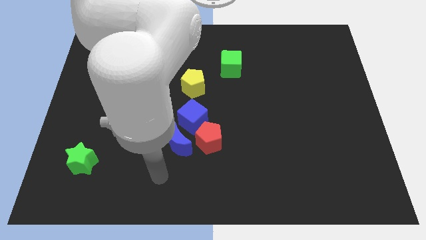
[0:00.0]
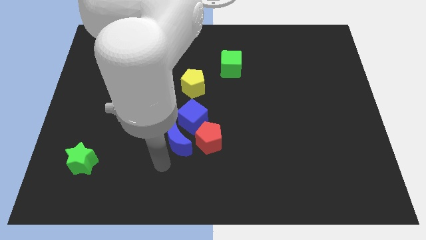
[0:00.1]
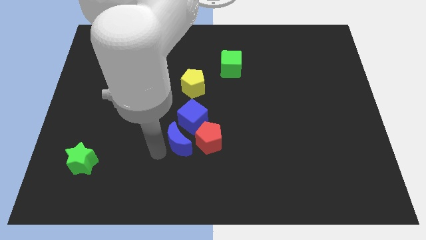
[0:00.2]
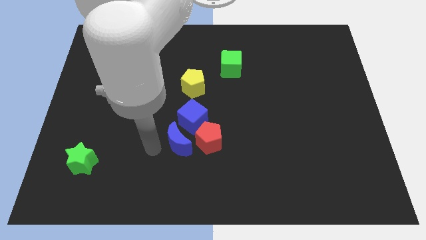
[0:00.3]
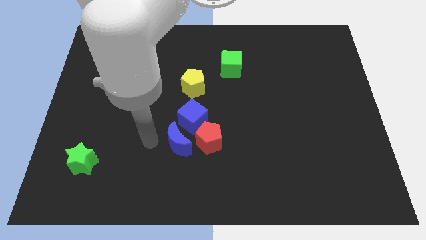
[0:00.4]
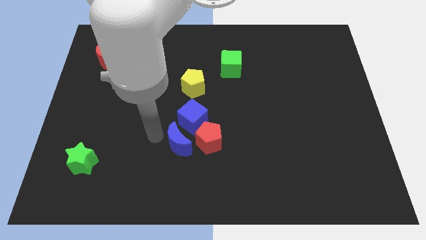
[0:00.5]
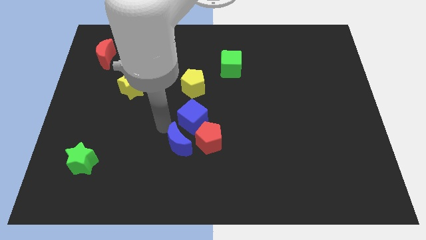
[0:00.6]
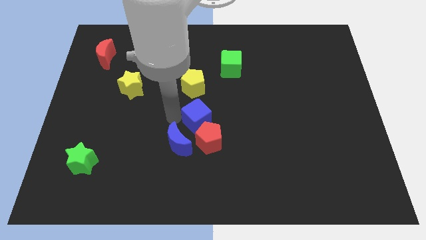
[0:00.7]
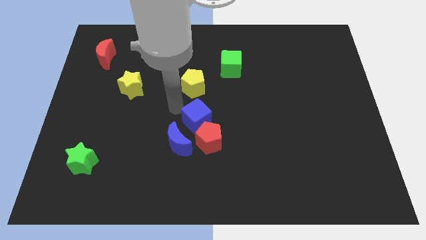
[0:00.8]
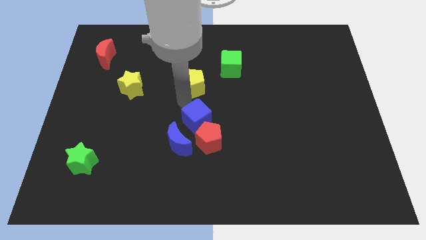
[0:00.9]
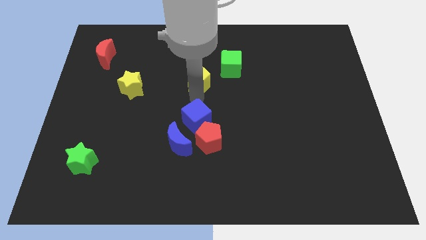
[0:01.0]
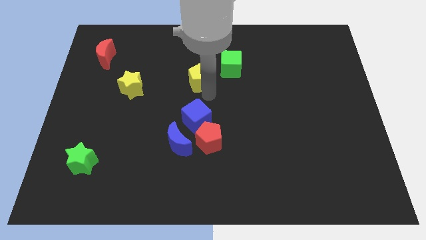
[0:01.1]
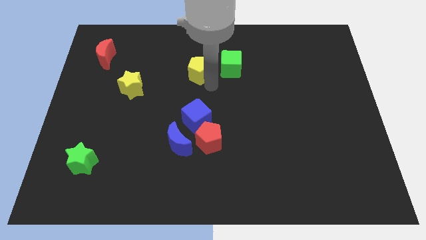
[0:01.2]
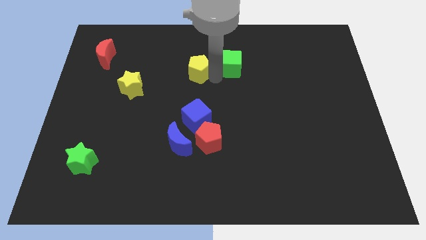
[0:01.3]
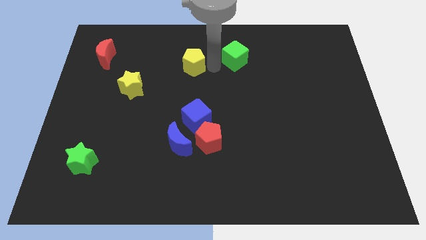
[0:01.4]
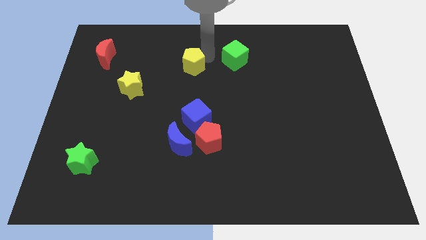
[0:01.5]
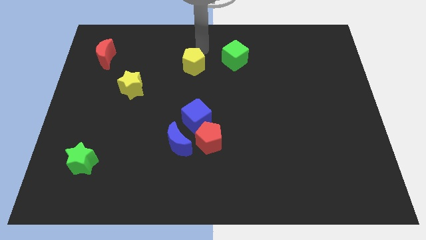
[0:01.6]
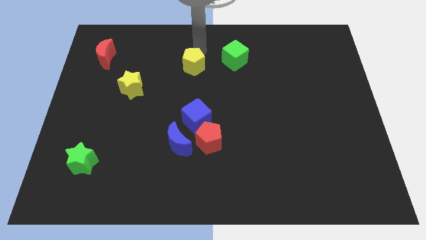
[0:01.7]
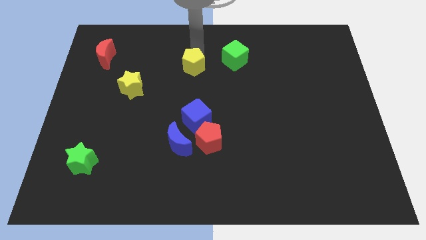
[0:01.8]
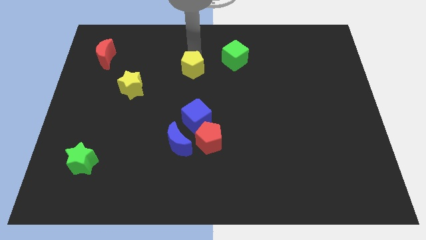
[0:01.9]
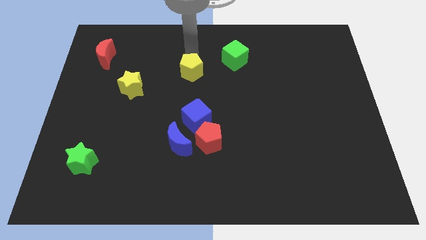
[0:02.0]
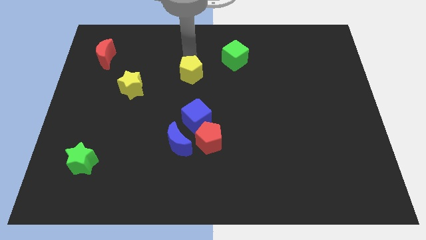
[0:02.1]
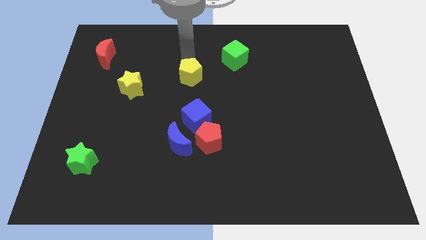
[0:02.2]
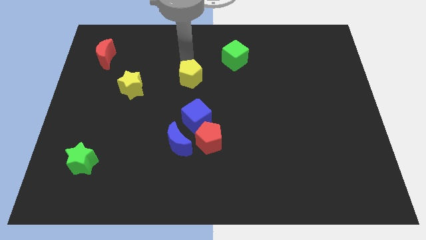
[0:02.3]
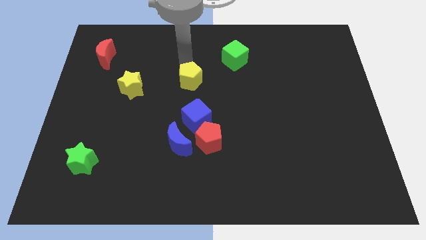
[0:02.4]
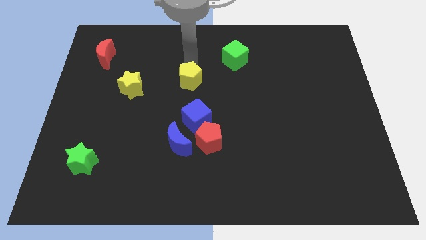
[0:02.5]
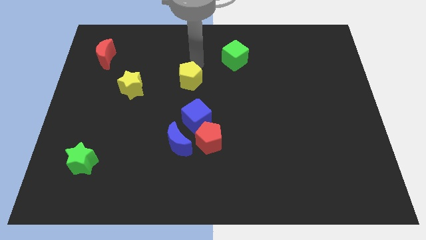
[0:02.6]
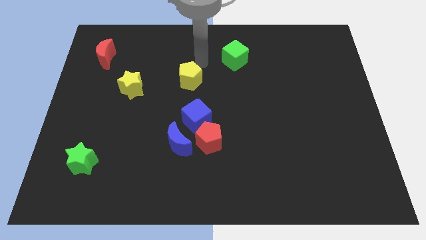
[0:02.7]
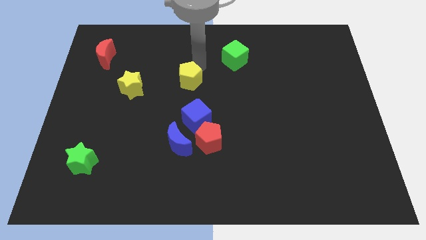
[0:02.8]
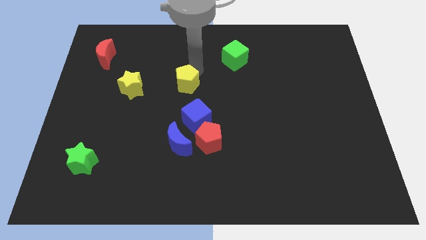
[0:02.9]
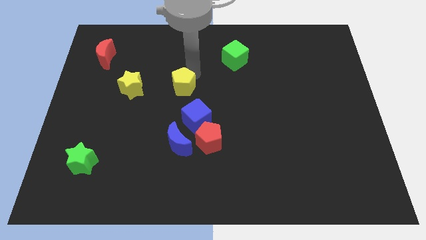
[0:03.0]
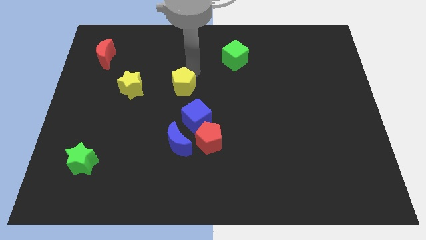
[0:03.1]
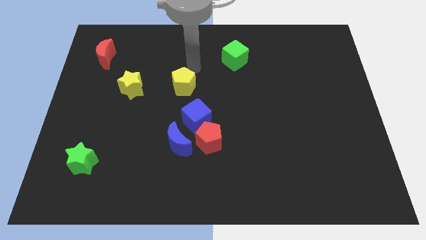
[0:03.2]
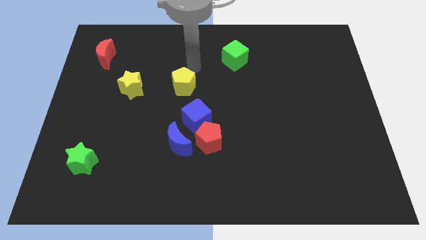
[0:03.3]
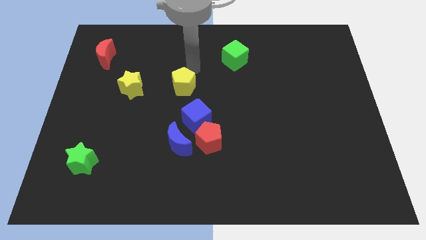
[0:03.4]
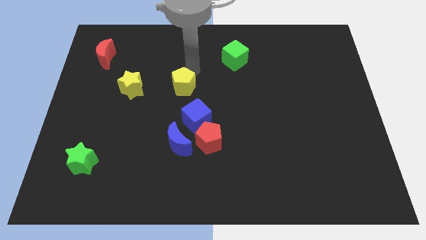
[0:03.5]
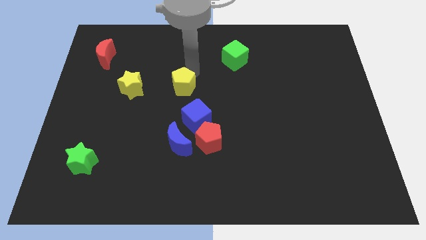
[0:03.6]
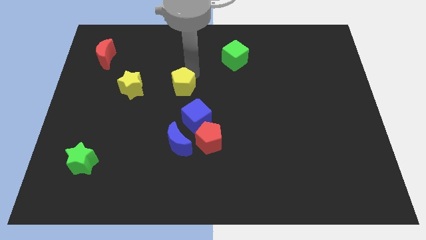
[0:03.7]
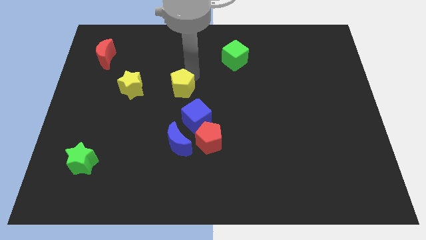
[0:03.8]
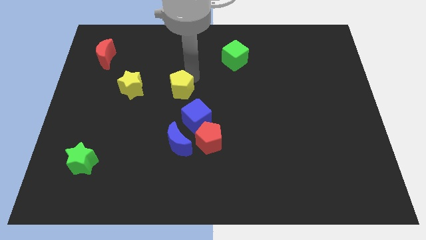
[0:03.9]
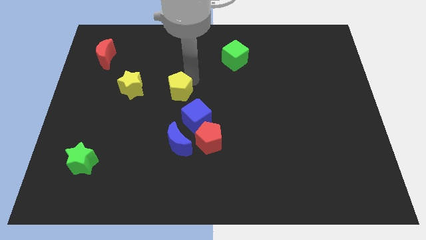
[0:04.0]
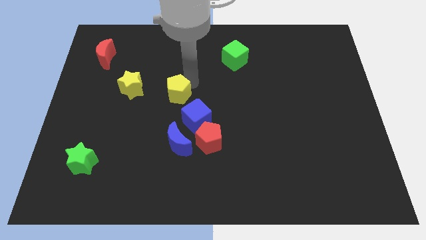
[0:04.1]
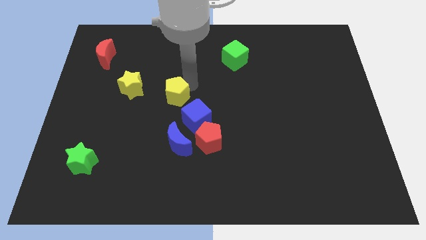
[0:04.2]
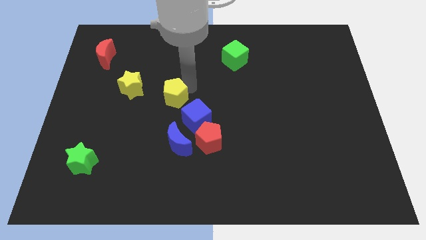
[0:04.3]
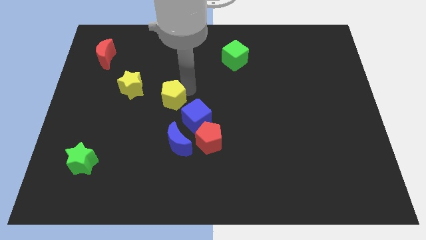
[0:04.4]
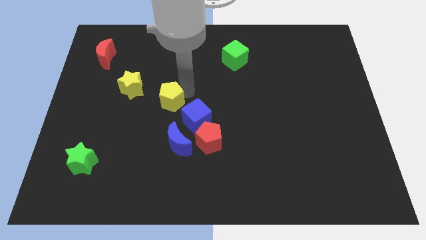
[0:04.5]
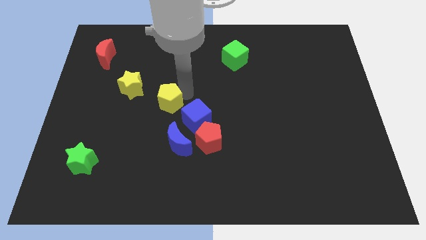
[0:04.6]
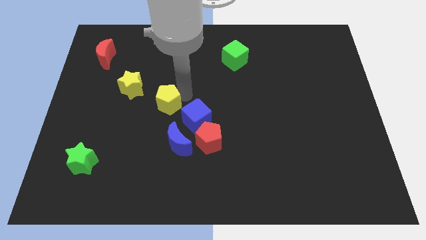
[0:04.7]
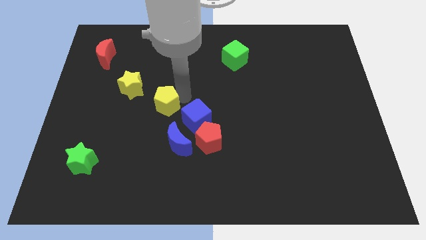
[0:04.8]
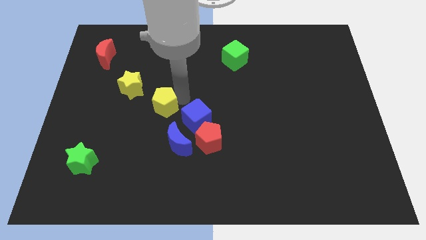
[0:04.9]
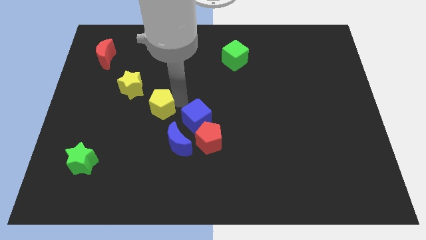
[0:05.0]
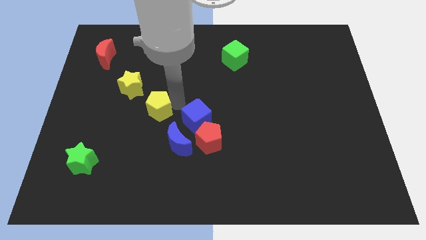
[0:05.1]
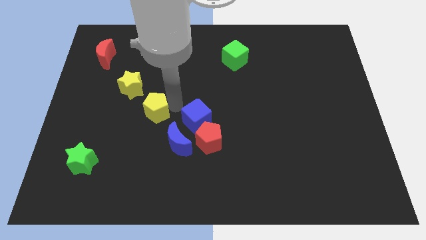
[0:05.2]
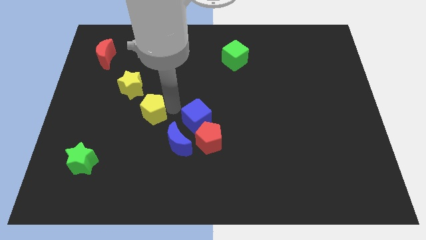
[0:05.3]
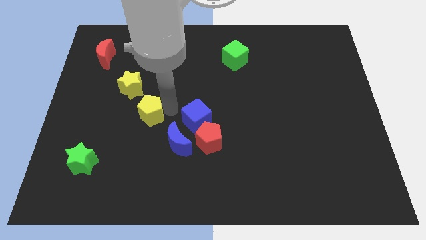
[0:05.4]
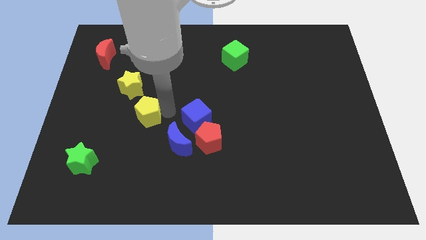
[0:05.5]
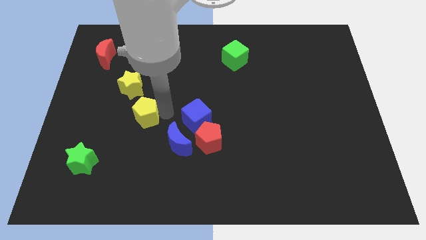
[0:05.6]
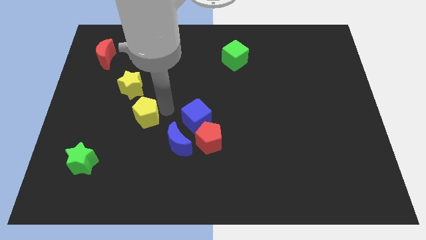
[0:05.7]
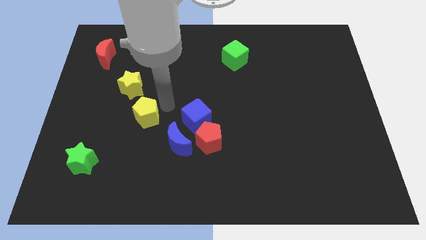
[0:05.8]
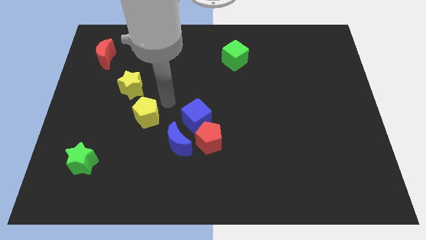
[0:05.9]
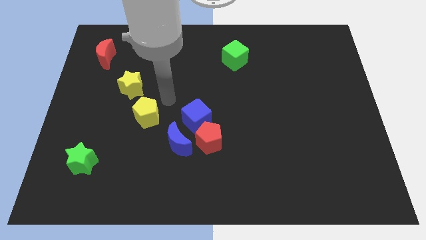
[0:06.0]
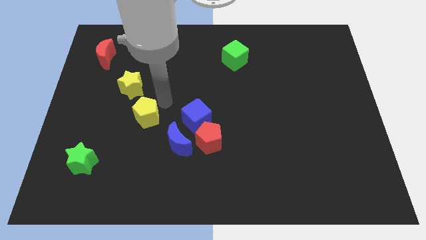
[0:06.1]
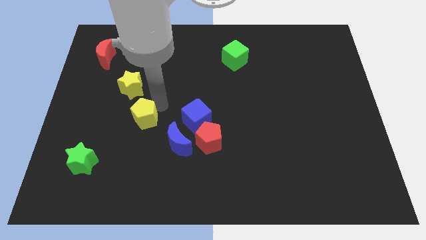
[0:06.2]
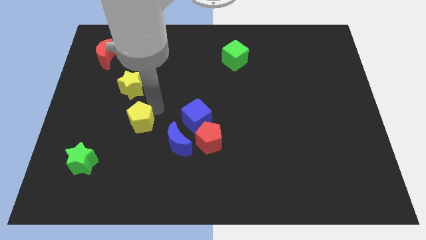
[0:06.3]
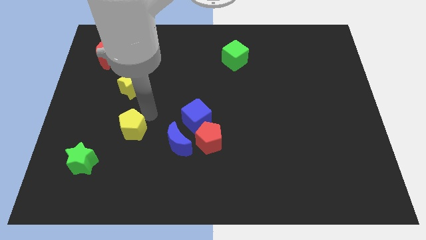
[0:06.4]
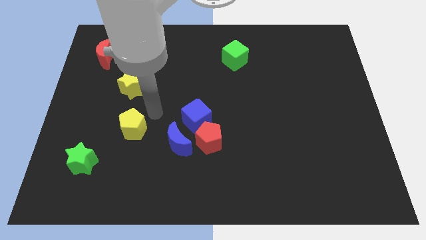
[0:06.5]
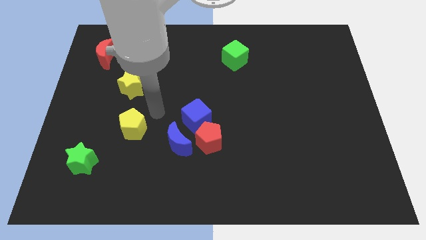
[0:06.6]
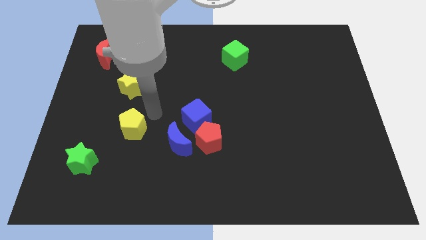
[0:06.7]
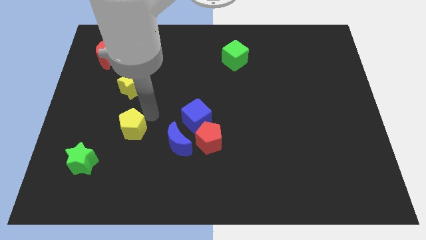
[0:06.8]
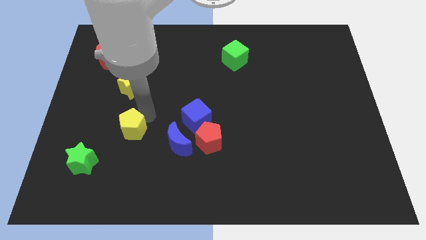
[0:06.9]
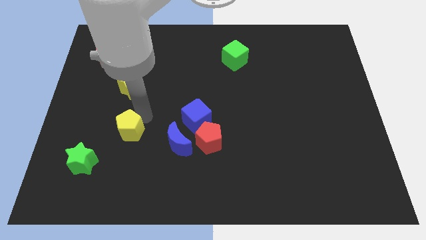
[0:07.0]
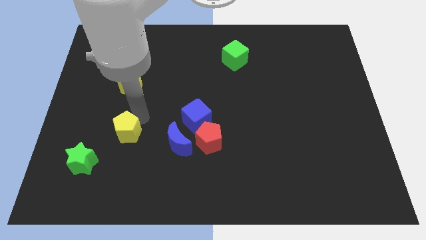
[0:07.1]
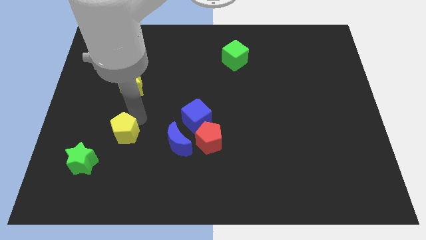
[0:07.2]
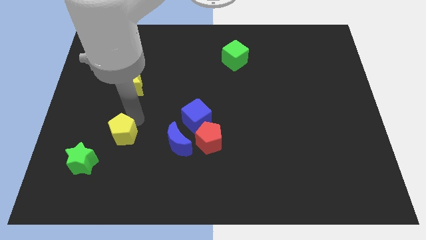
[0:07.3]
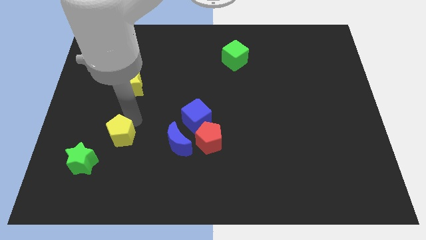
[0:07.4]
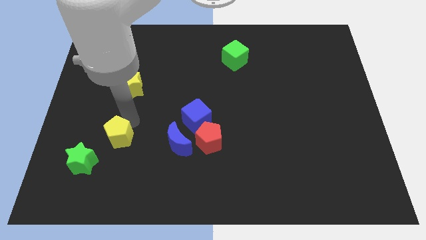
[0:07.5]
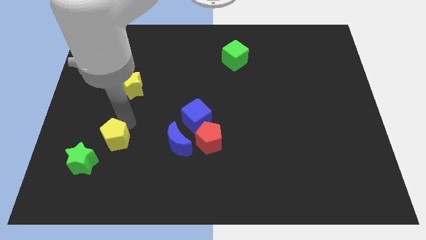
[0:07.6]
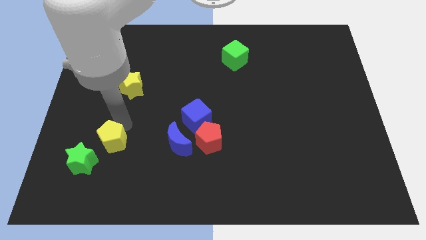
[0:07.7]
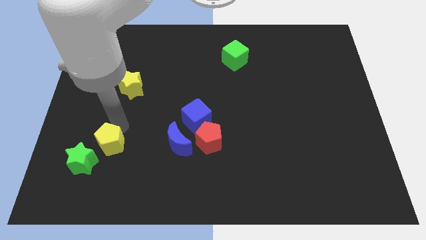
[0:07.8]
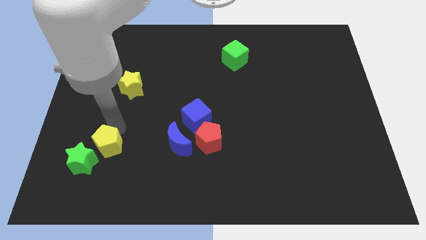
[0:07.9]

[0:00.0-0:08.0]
slide the yellow pentagon next to the green star
